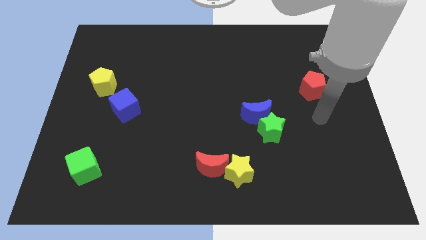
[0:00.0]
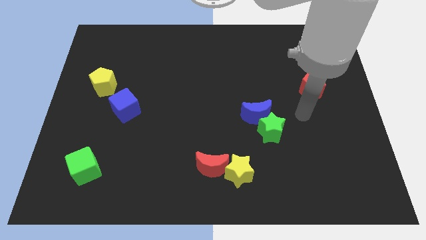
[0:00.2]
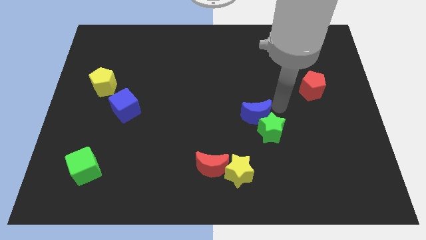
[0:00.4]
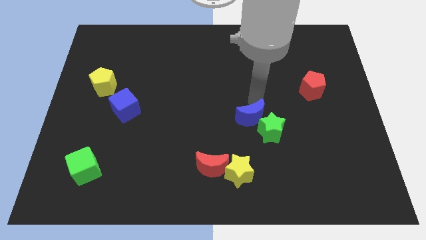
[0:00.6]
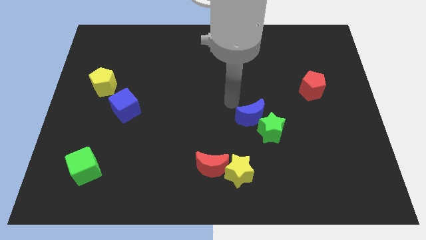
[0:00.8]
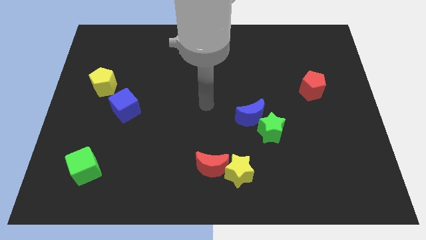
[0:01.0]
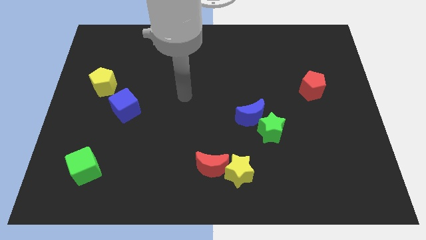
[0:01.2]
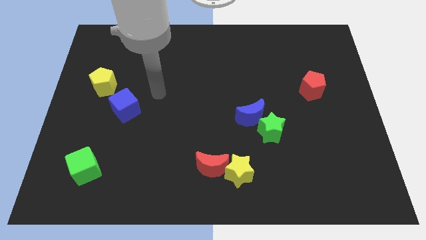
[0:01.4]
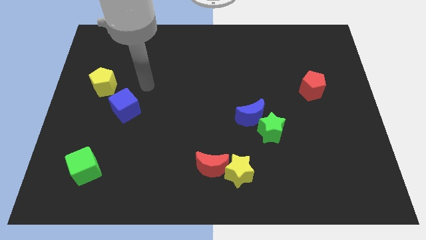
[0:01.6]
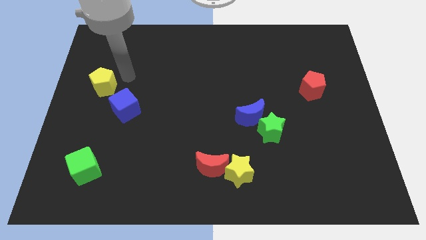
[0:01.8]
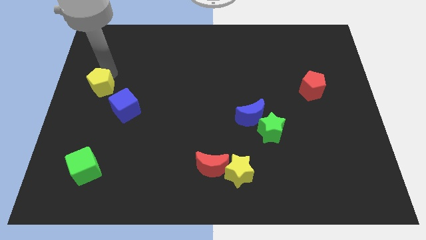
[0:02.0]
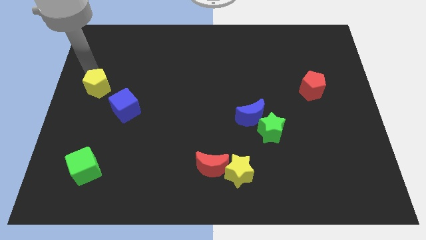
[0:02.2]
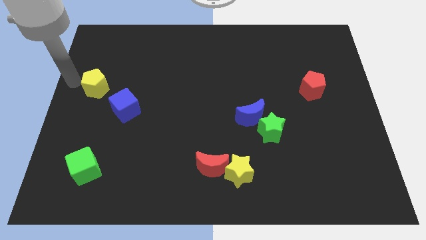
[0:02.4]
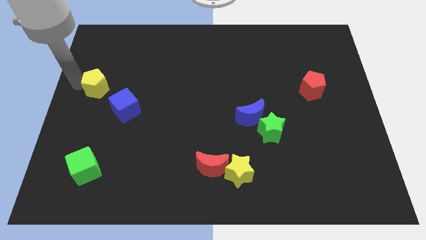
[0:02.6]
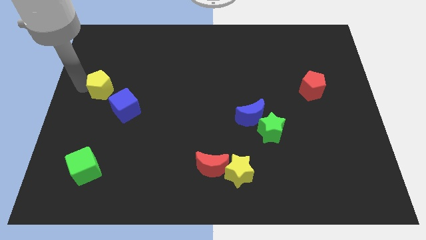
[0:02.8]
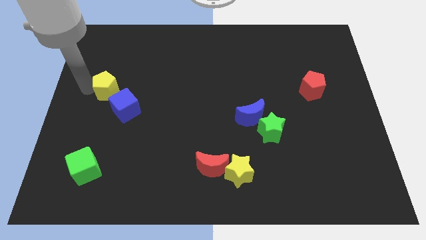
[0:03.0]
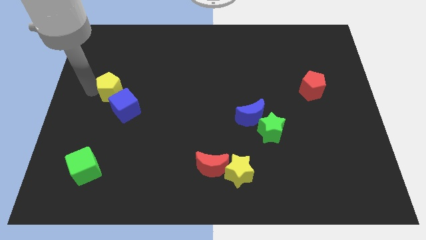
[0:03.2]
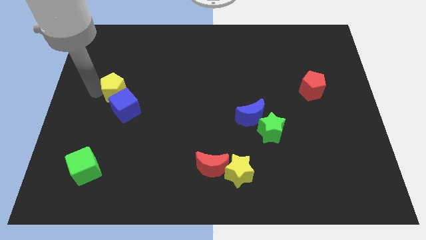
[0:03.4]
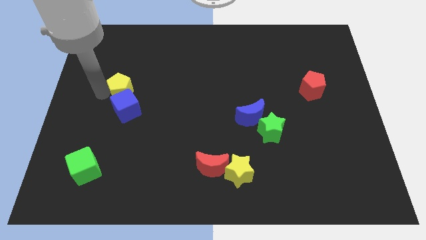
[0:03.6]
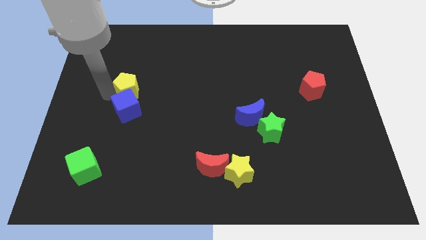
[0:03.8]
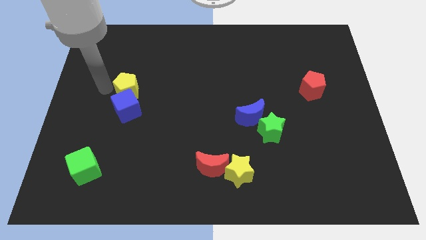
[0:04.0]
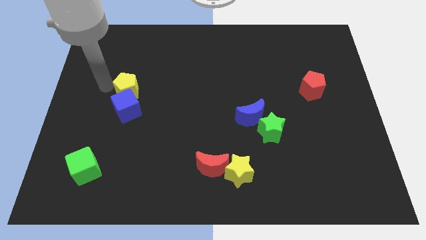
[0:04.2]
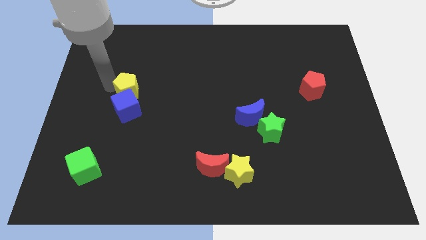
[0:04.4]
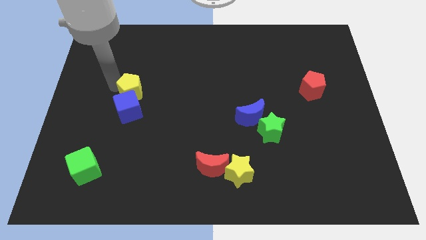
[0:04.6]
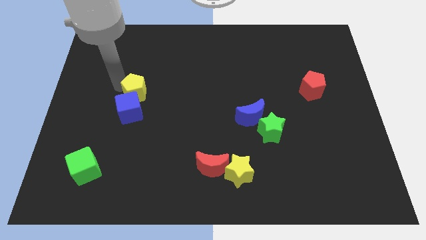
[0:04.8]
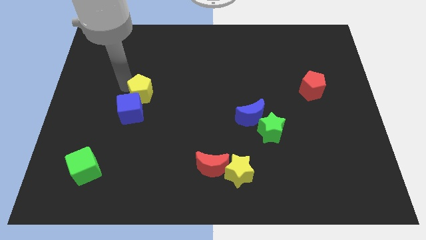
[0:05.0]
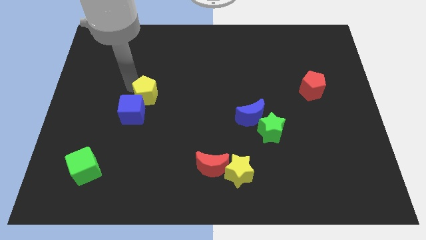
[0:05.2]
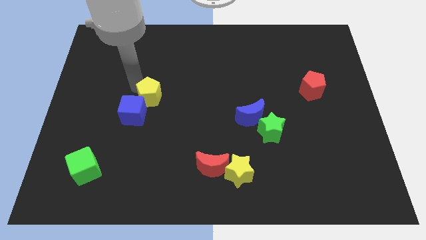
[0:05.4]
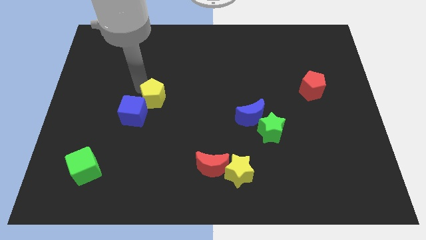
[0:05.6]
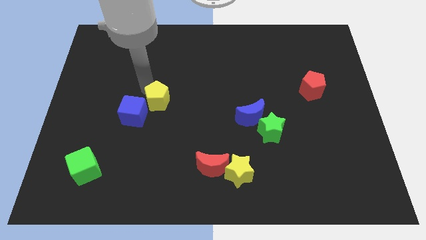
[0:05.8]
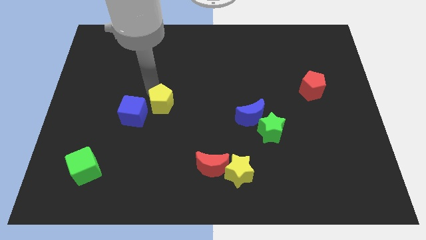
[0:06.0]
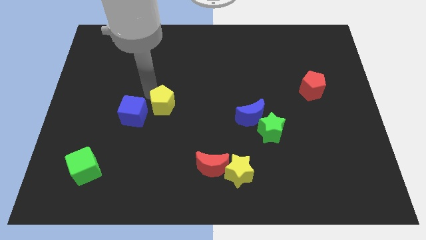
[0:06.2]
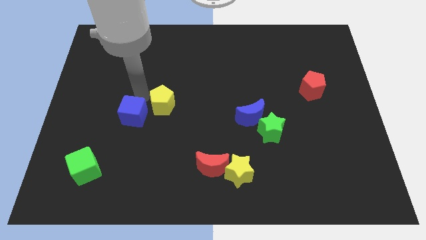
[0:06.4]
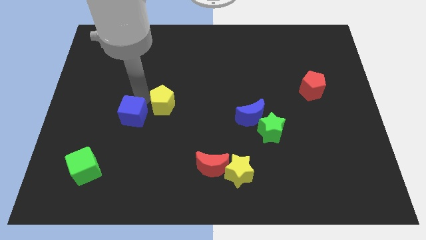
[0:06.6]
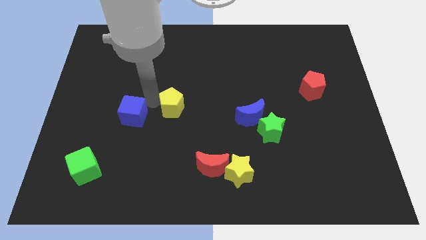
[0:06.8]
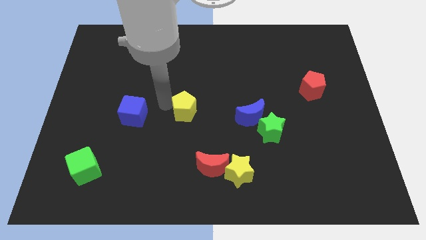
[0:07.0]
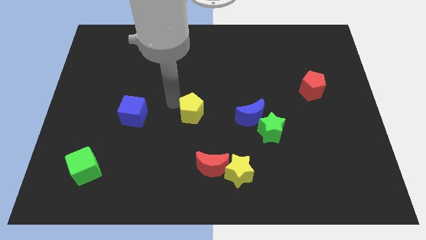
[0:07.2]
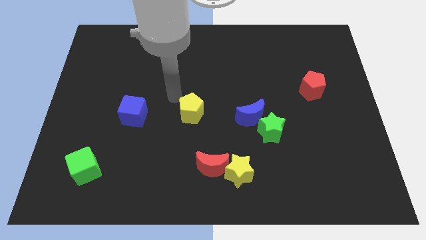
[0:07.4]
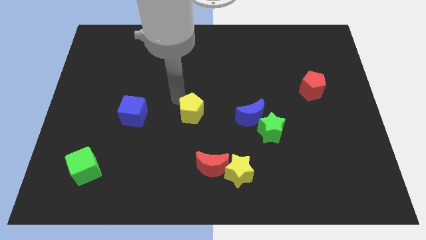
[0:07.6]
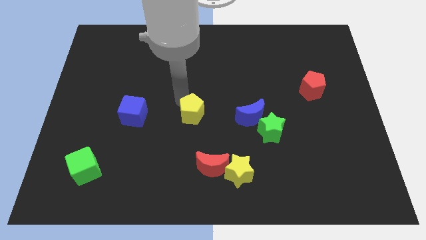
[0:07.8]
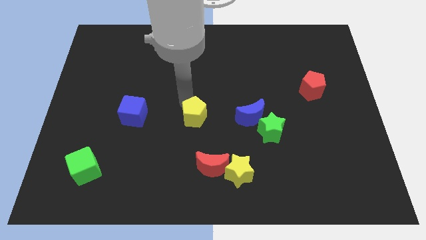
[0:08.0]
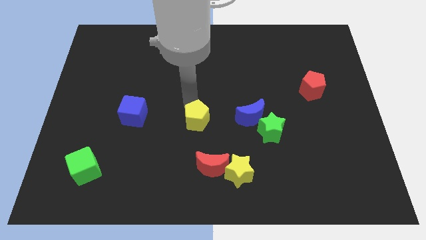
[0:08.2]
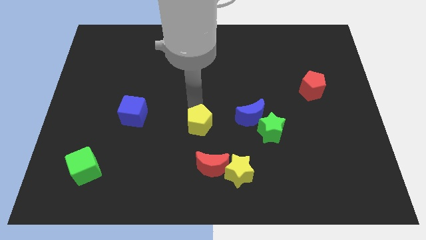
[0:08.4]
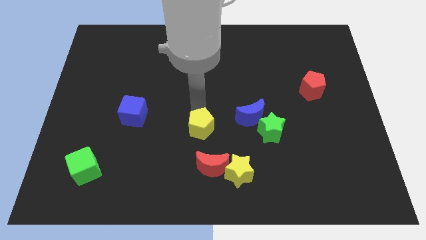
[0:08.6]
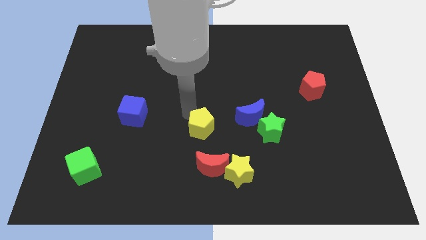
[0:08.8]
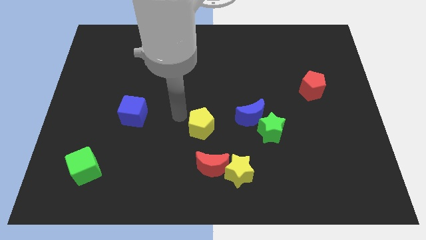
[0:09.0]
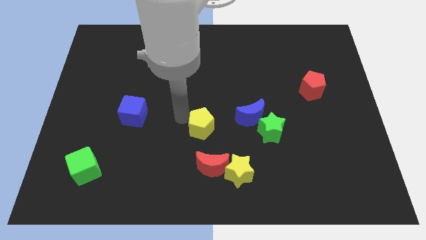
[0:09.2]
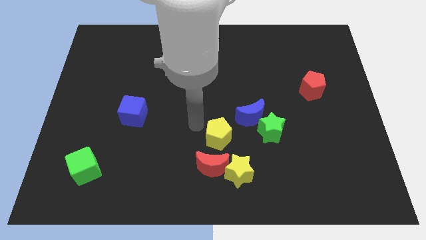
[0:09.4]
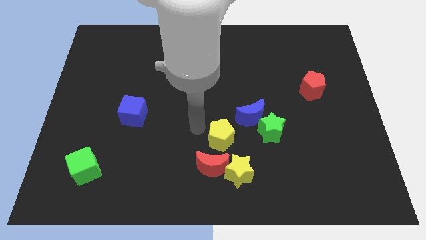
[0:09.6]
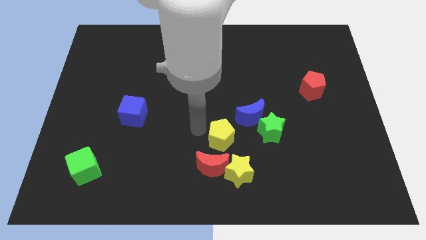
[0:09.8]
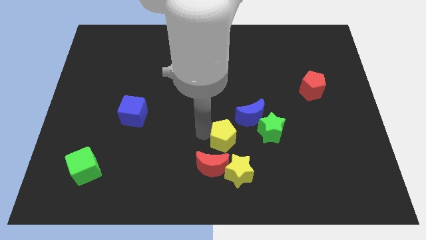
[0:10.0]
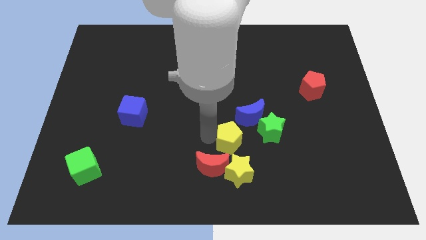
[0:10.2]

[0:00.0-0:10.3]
put the yellow pentagon diagonally down and to the left of the green star

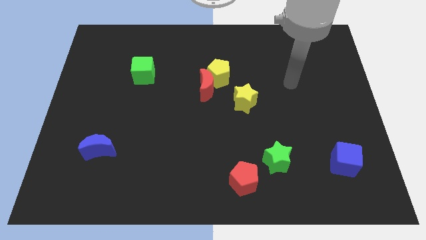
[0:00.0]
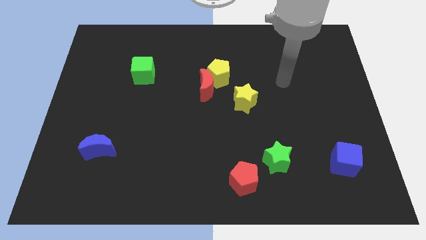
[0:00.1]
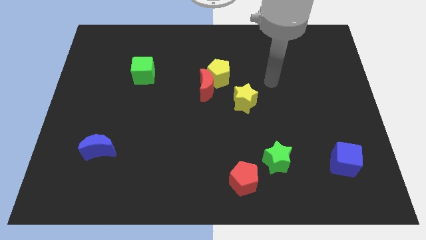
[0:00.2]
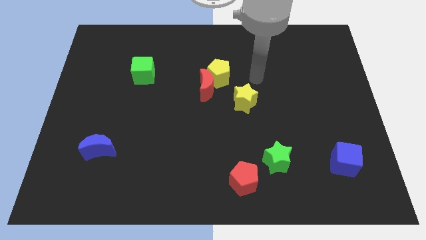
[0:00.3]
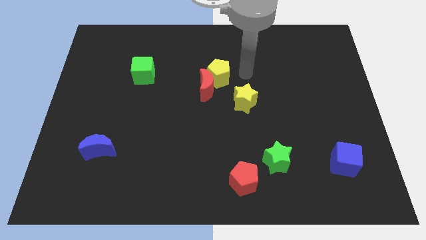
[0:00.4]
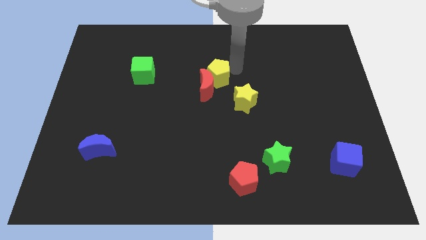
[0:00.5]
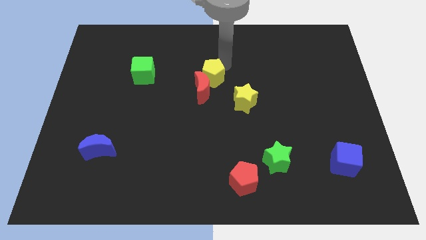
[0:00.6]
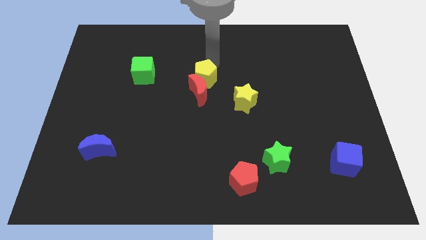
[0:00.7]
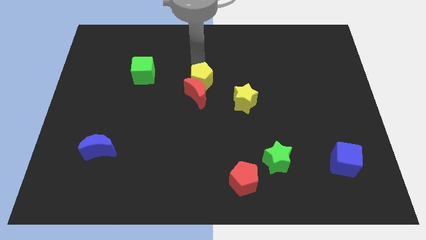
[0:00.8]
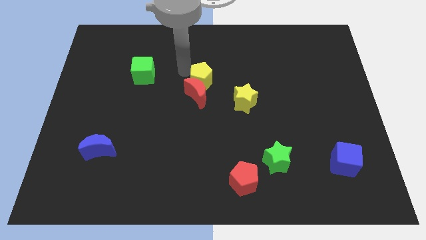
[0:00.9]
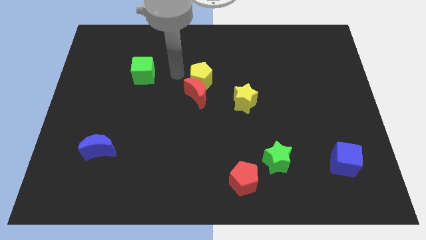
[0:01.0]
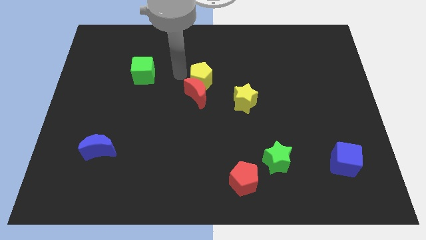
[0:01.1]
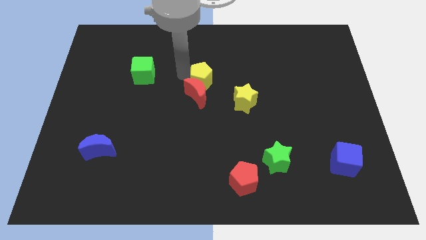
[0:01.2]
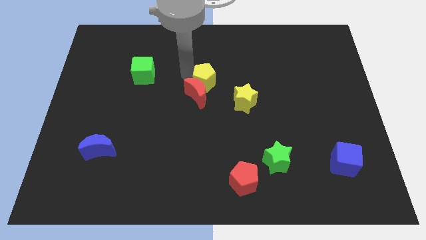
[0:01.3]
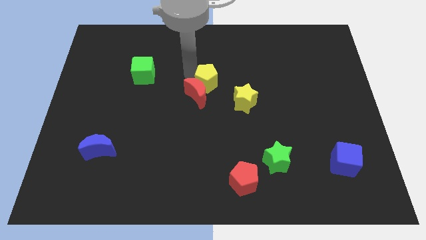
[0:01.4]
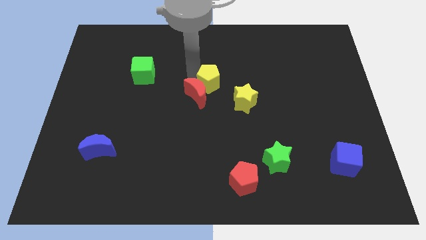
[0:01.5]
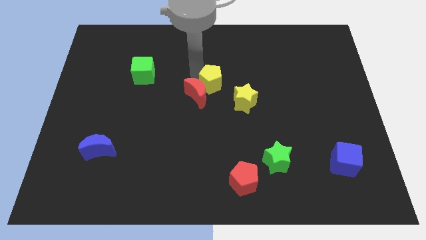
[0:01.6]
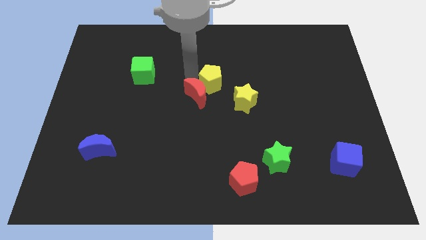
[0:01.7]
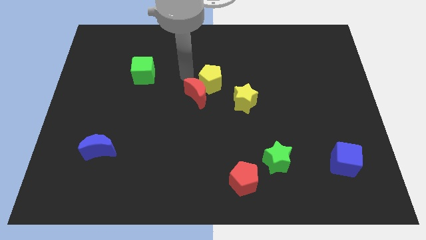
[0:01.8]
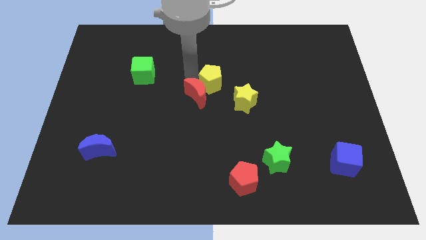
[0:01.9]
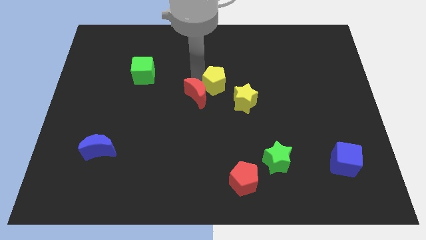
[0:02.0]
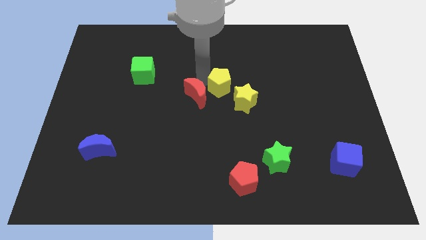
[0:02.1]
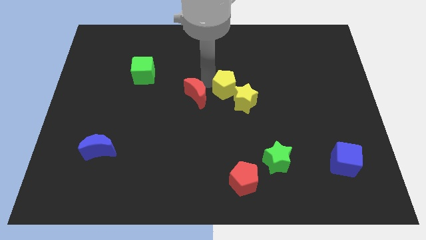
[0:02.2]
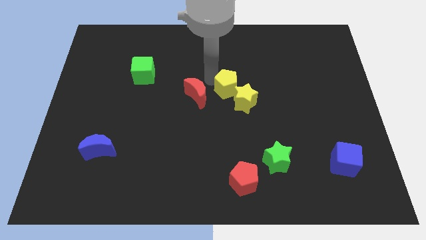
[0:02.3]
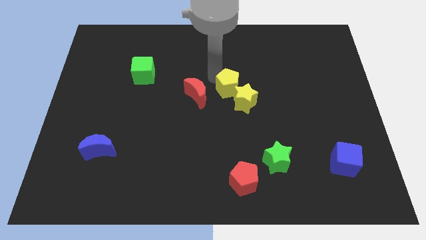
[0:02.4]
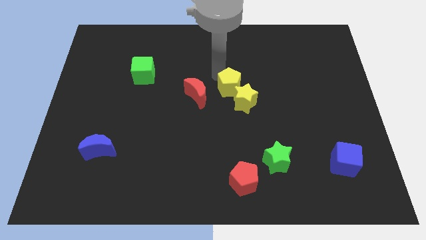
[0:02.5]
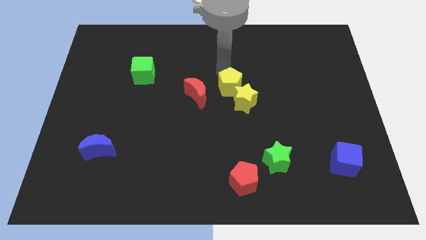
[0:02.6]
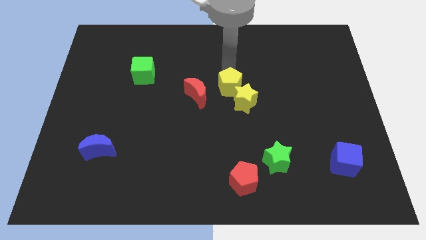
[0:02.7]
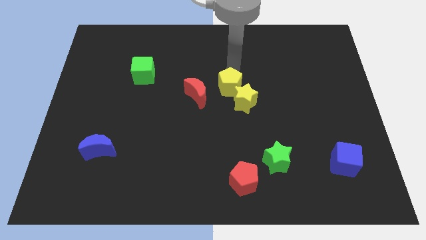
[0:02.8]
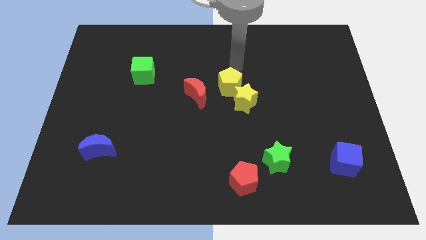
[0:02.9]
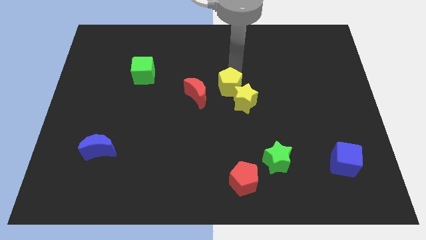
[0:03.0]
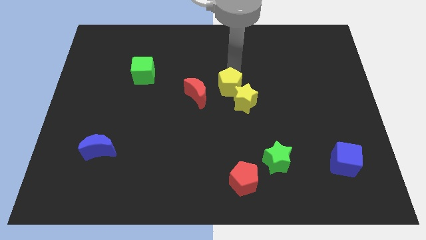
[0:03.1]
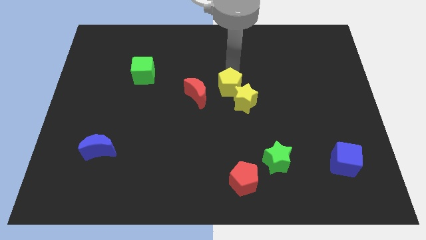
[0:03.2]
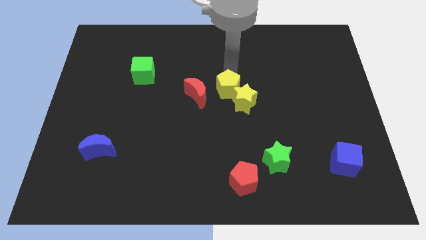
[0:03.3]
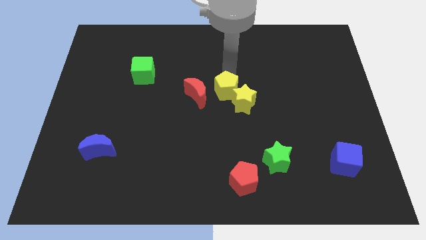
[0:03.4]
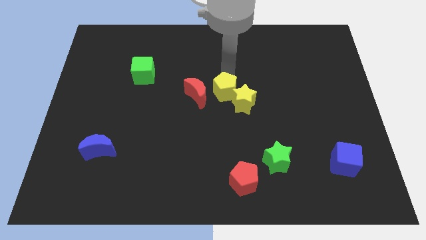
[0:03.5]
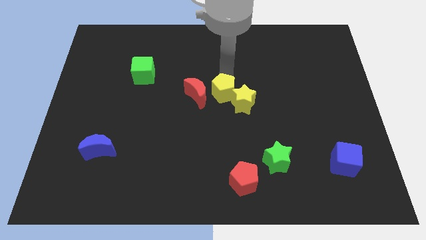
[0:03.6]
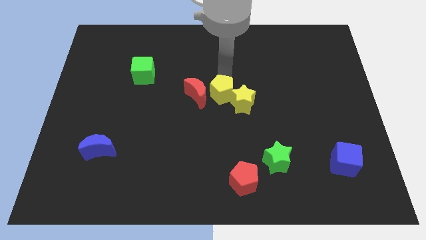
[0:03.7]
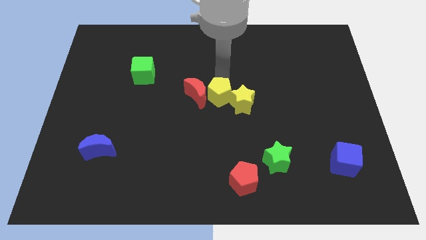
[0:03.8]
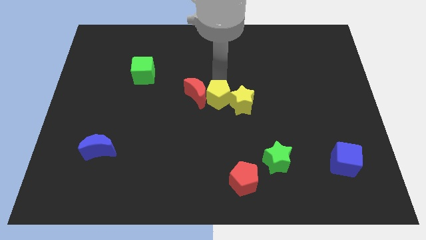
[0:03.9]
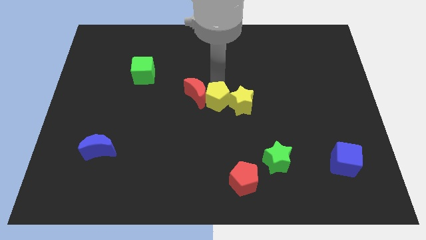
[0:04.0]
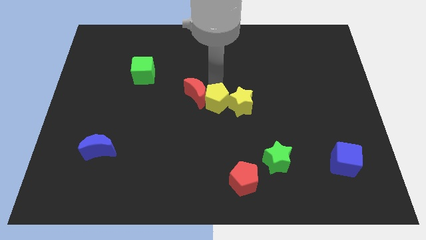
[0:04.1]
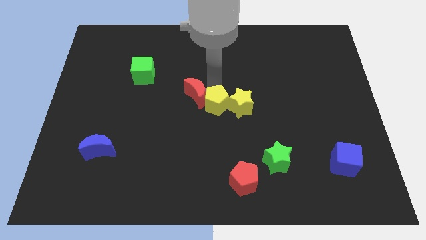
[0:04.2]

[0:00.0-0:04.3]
move the yellow pentagon to the bottom left of the yellow star
